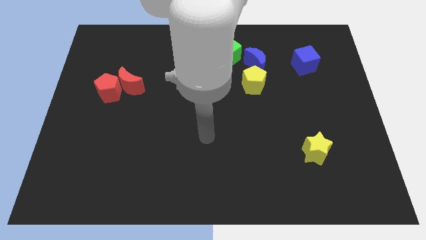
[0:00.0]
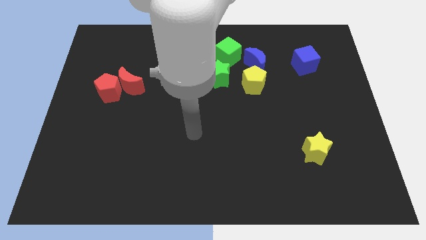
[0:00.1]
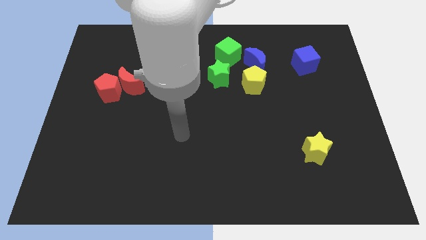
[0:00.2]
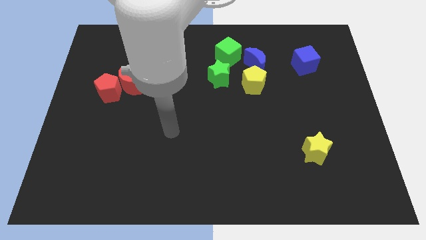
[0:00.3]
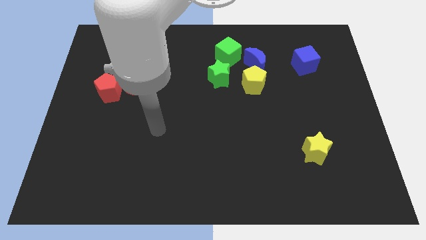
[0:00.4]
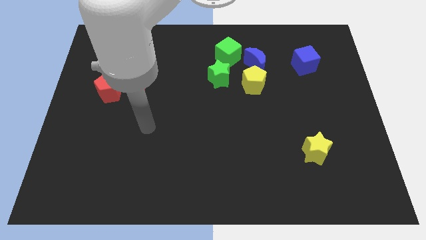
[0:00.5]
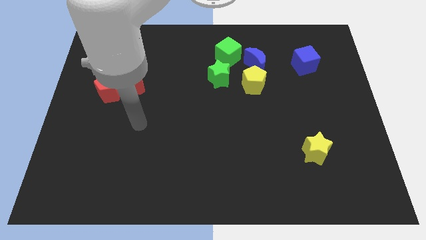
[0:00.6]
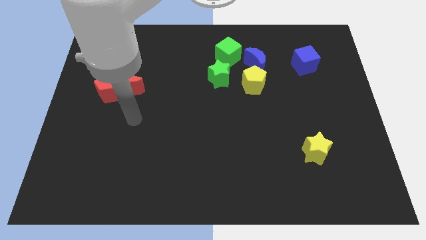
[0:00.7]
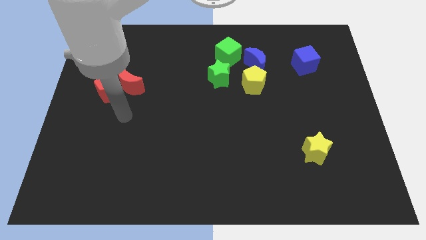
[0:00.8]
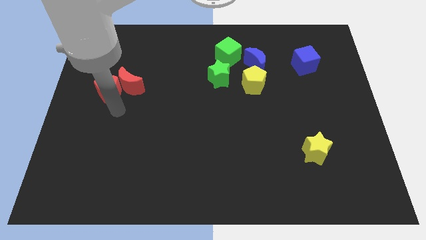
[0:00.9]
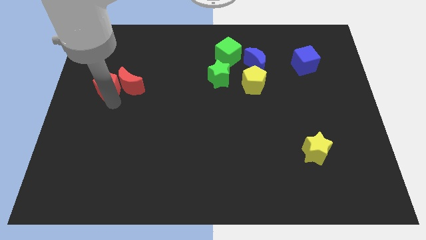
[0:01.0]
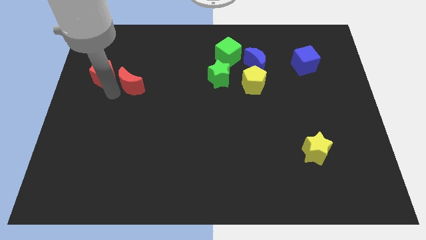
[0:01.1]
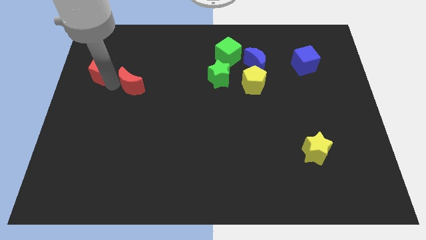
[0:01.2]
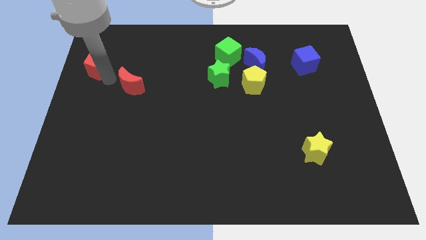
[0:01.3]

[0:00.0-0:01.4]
pull the red moon apart from the red pentagon

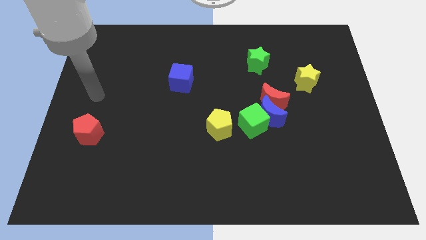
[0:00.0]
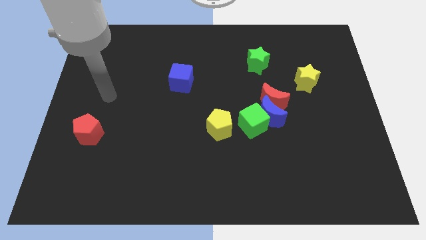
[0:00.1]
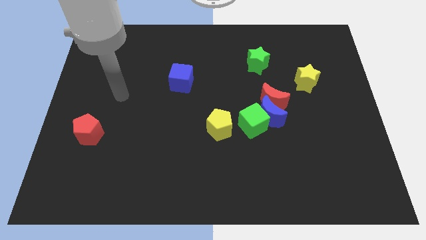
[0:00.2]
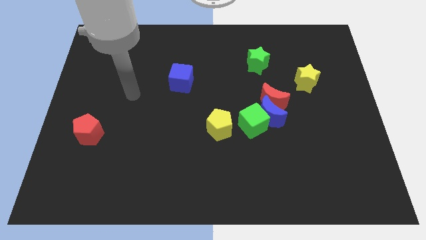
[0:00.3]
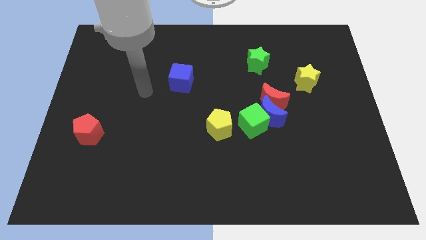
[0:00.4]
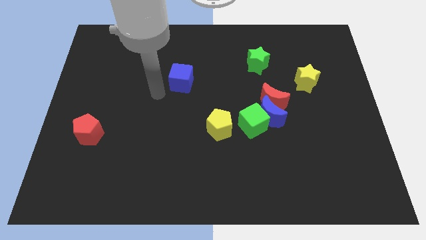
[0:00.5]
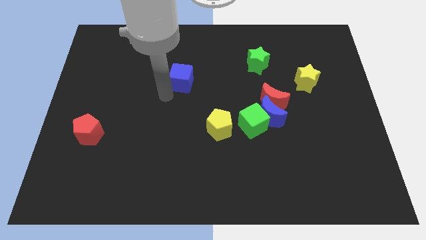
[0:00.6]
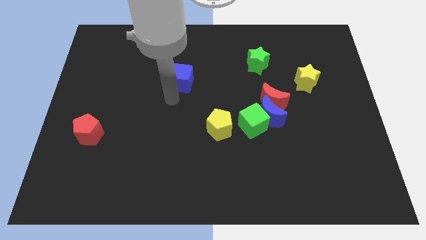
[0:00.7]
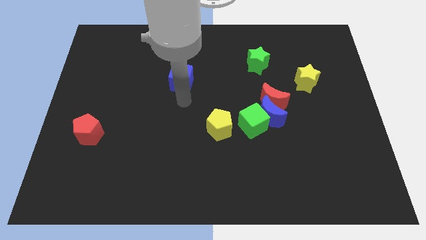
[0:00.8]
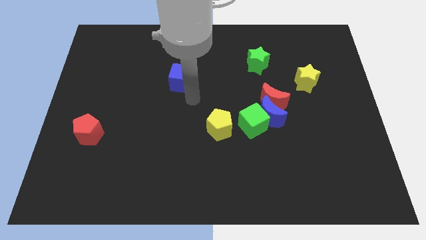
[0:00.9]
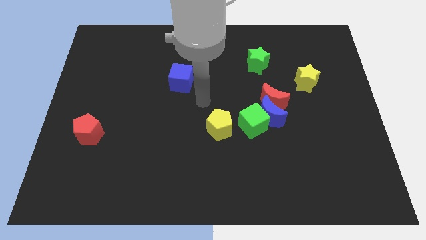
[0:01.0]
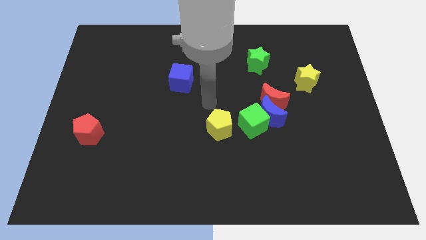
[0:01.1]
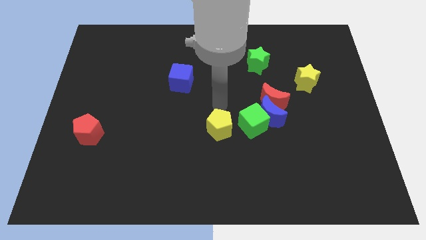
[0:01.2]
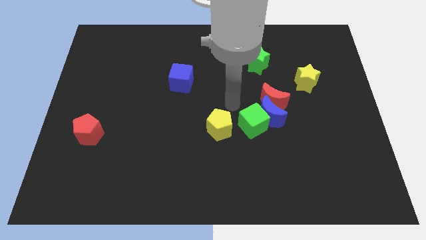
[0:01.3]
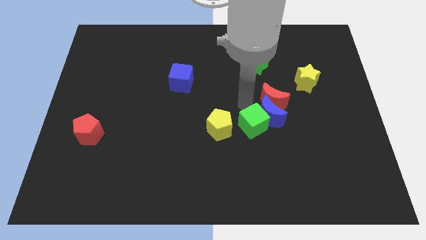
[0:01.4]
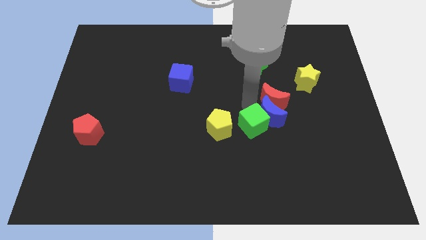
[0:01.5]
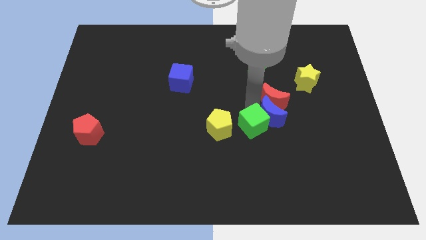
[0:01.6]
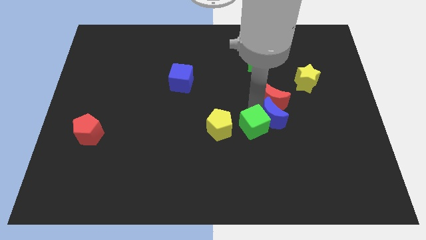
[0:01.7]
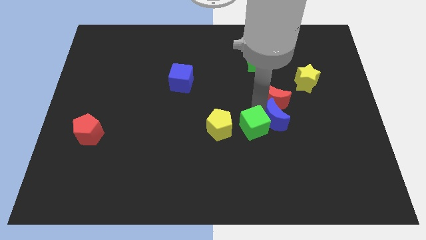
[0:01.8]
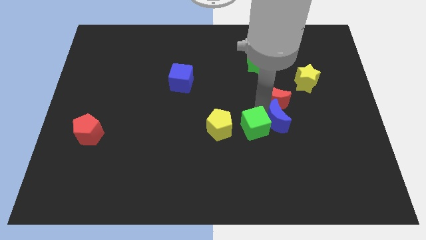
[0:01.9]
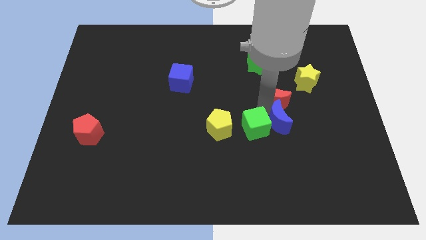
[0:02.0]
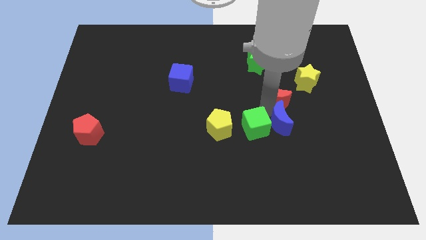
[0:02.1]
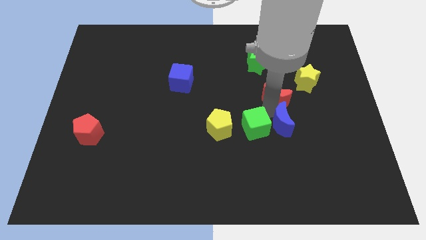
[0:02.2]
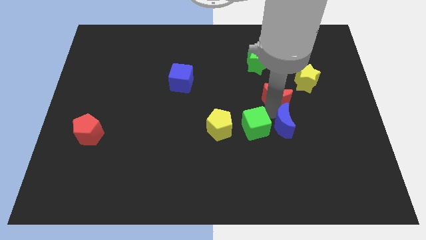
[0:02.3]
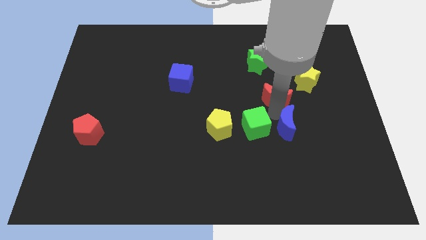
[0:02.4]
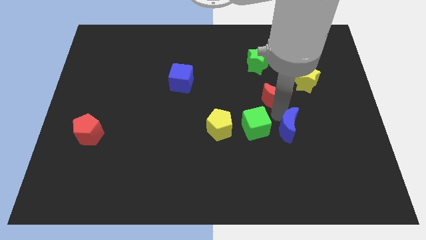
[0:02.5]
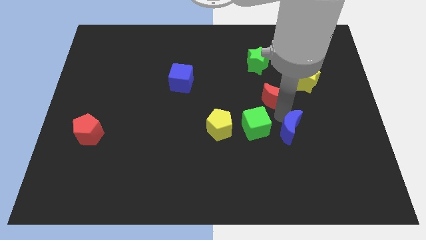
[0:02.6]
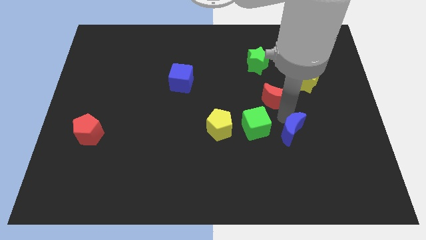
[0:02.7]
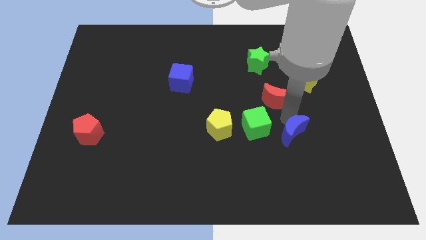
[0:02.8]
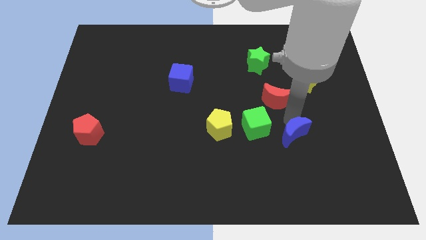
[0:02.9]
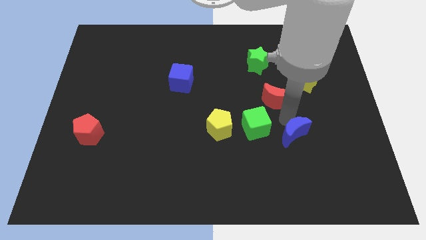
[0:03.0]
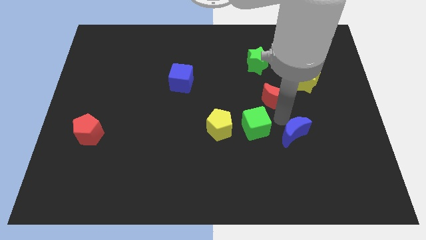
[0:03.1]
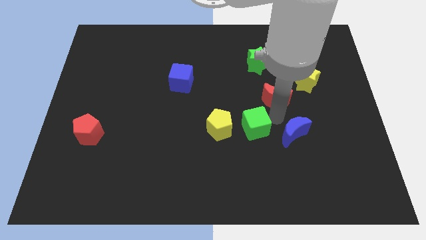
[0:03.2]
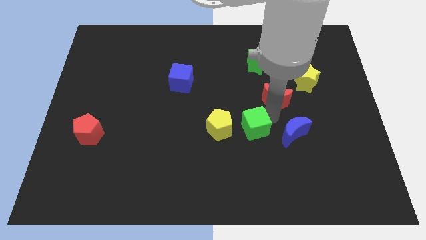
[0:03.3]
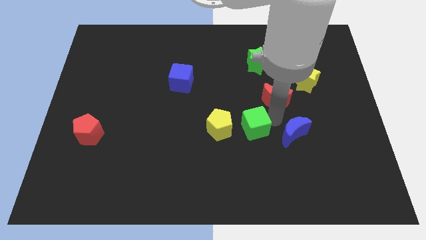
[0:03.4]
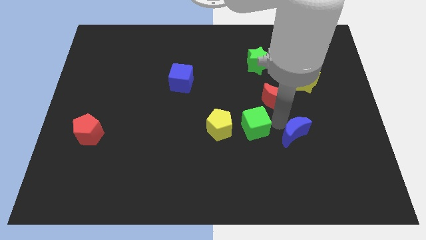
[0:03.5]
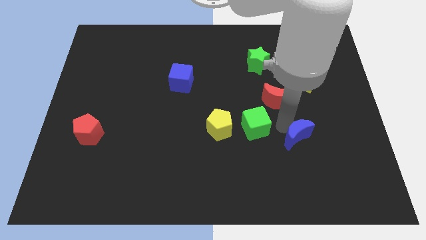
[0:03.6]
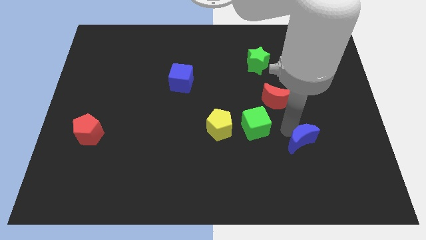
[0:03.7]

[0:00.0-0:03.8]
separate the blue moon from the red moon and green cube

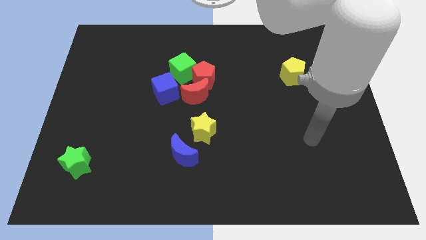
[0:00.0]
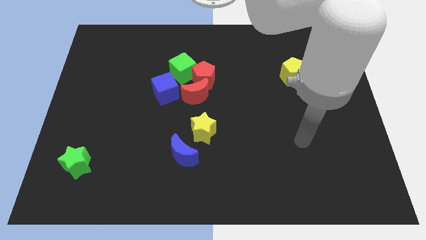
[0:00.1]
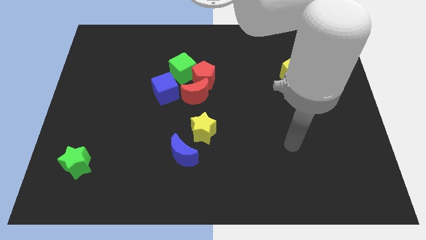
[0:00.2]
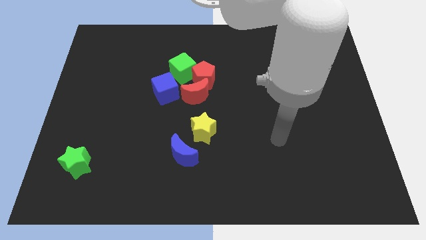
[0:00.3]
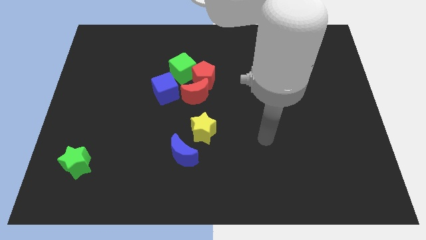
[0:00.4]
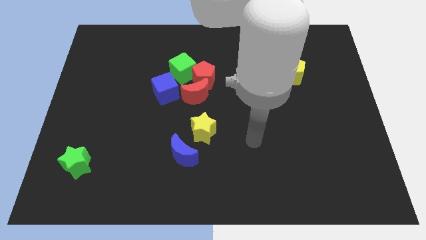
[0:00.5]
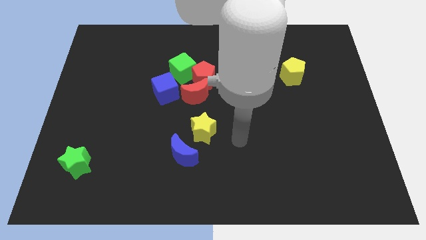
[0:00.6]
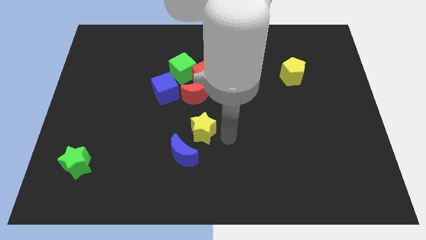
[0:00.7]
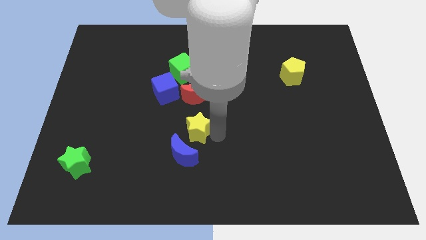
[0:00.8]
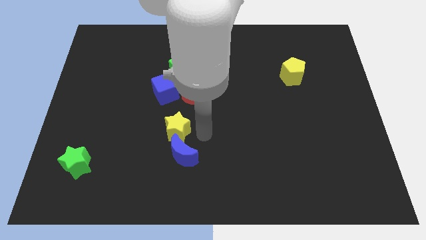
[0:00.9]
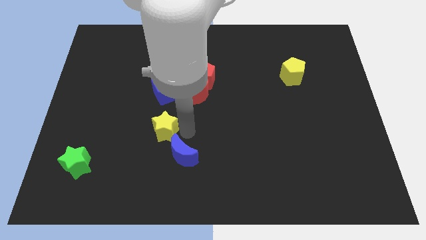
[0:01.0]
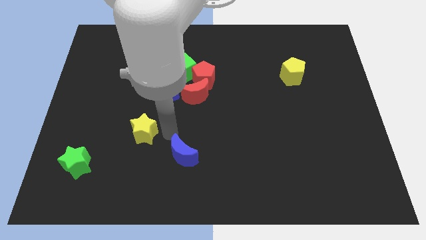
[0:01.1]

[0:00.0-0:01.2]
separate the blue moon from the yellow star

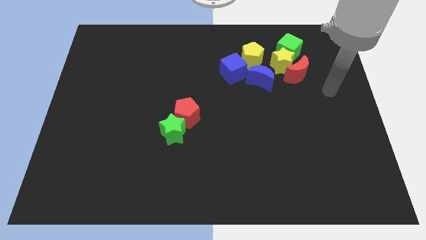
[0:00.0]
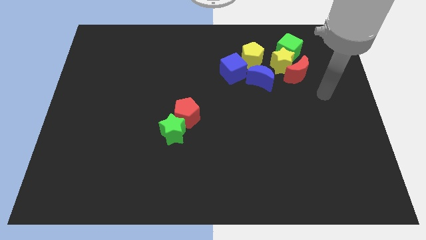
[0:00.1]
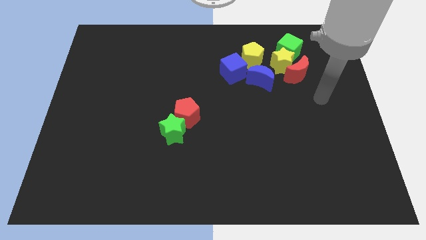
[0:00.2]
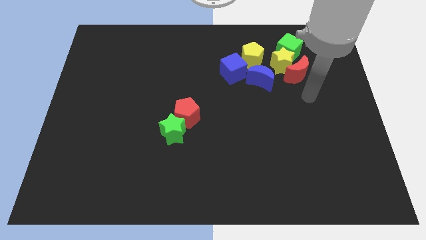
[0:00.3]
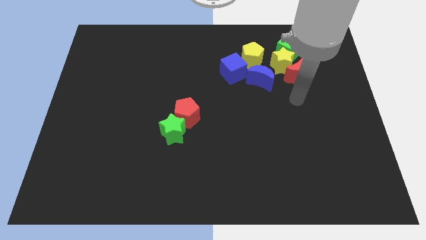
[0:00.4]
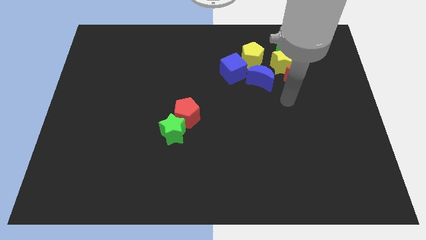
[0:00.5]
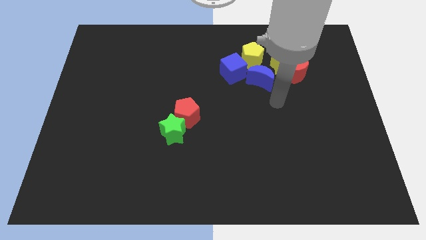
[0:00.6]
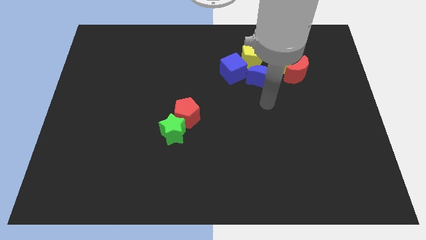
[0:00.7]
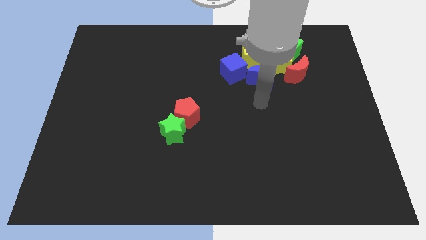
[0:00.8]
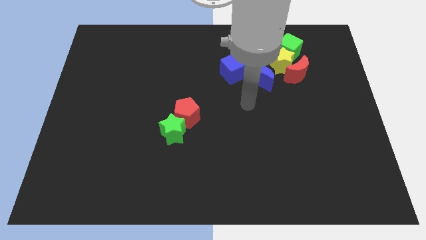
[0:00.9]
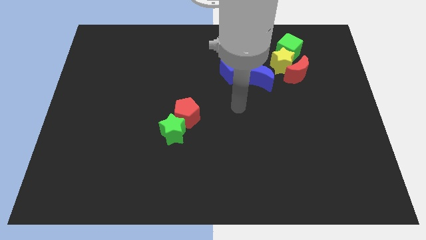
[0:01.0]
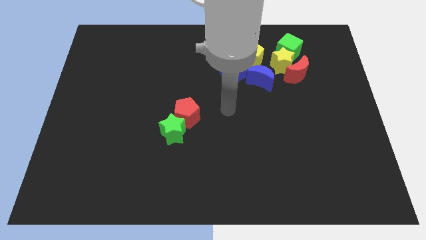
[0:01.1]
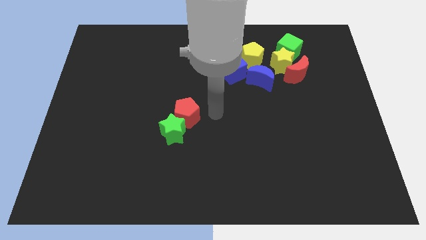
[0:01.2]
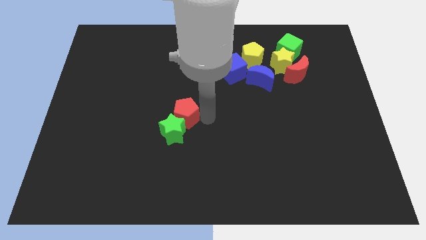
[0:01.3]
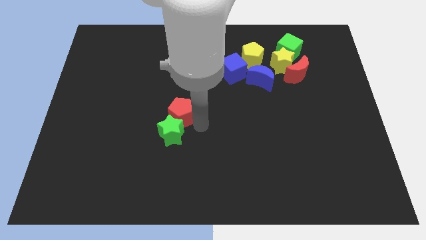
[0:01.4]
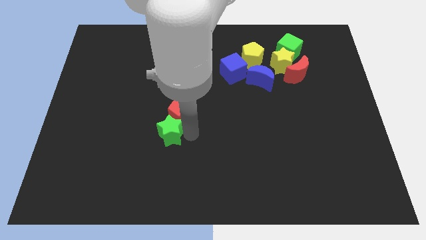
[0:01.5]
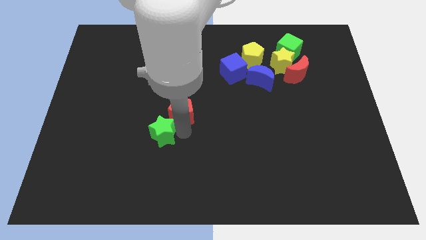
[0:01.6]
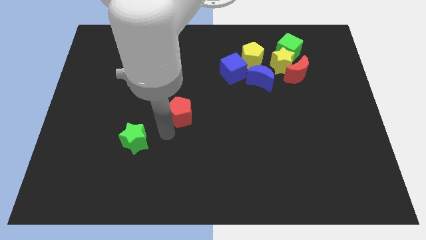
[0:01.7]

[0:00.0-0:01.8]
separate the red pentagon from the green star

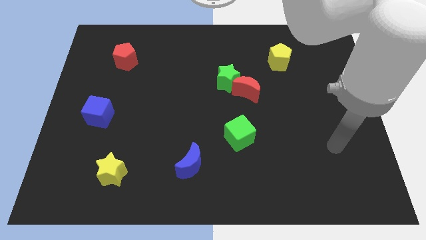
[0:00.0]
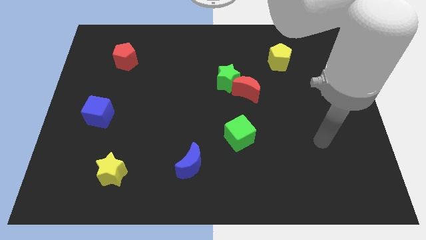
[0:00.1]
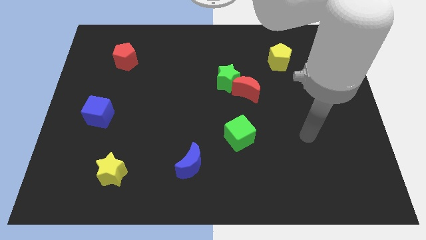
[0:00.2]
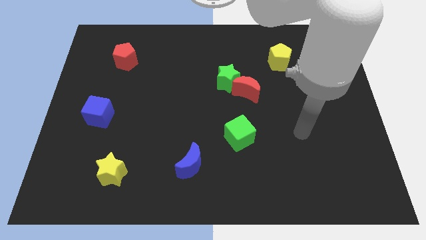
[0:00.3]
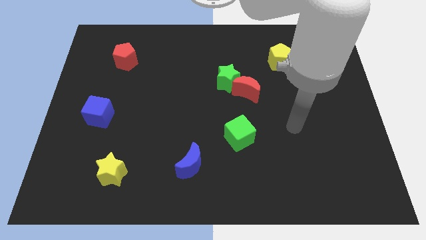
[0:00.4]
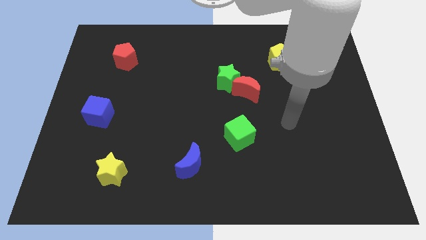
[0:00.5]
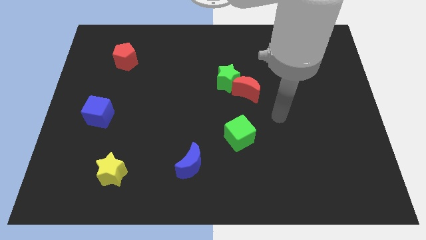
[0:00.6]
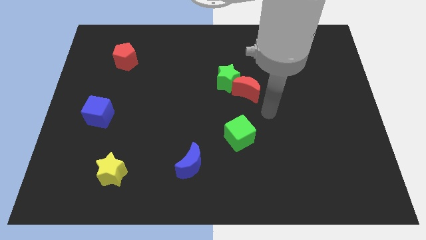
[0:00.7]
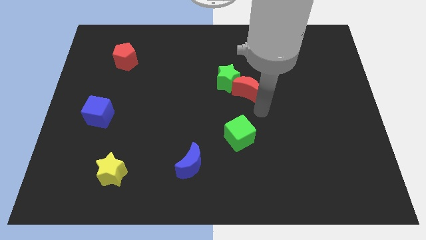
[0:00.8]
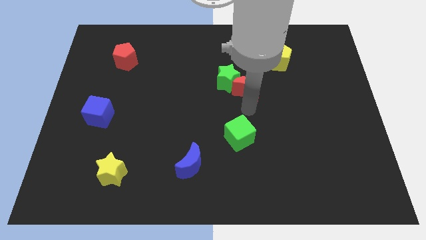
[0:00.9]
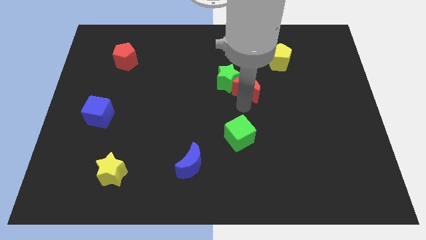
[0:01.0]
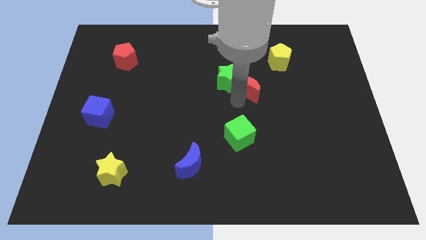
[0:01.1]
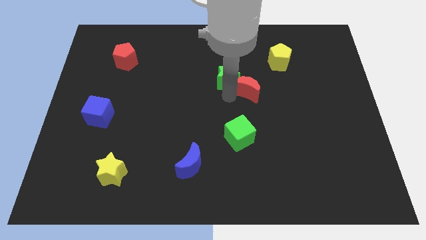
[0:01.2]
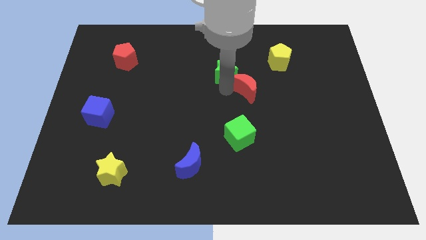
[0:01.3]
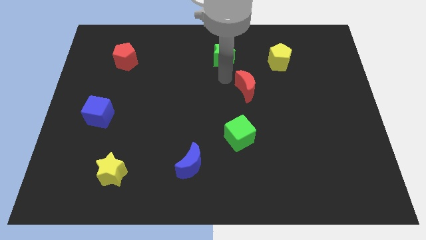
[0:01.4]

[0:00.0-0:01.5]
separate the red moon from the green star
